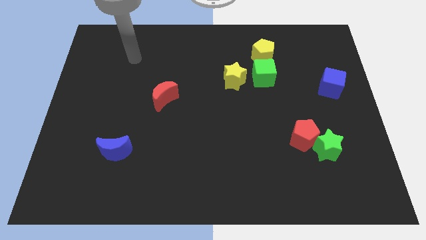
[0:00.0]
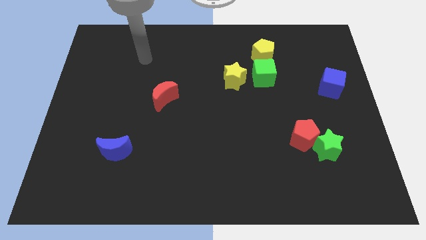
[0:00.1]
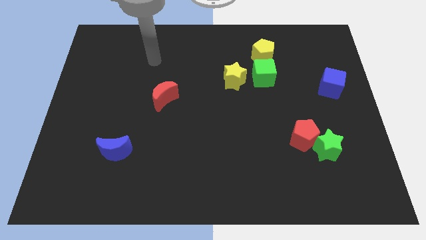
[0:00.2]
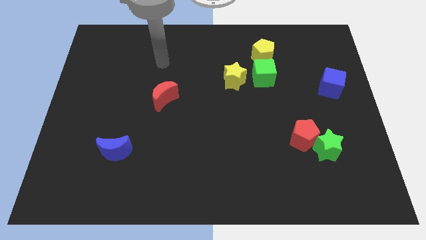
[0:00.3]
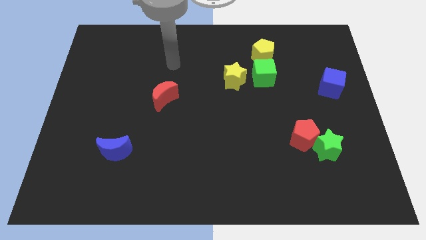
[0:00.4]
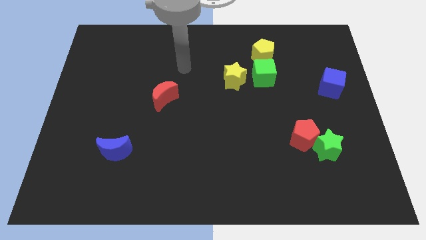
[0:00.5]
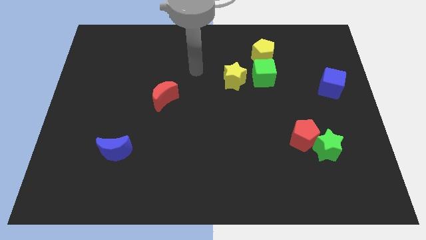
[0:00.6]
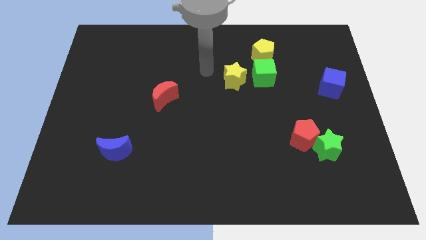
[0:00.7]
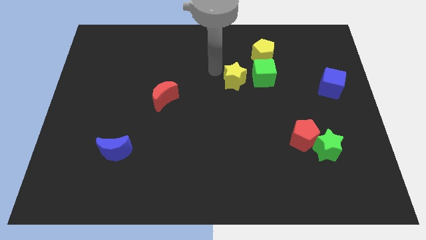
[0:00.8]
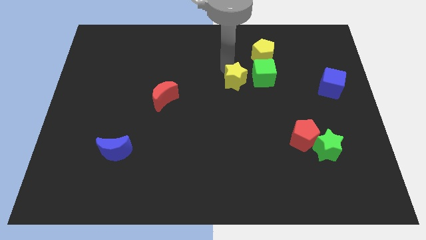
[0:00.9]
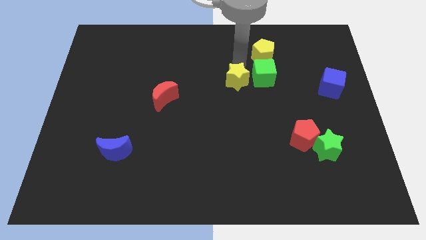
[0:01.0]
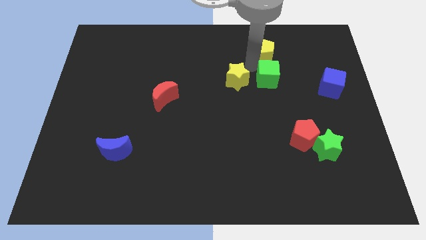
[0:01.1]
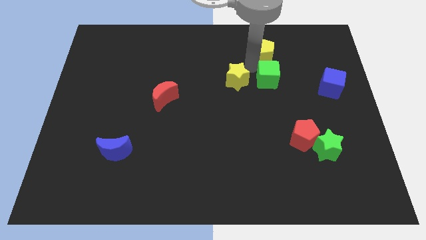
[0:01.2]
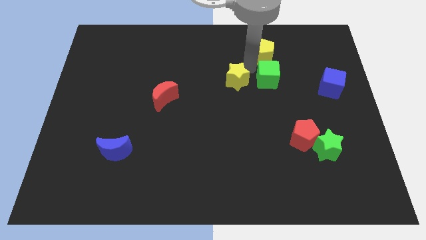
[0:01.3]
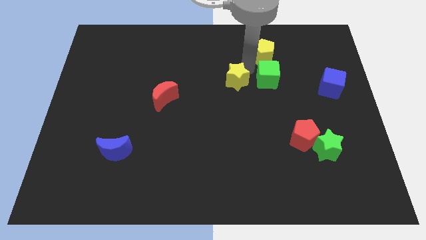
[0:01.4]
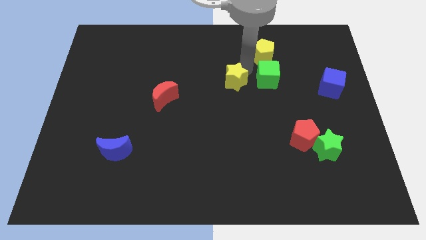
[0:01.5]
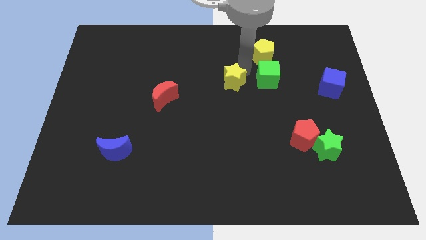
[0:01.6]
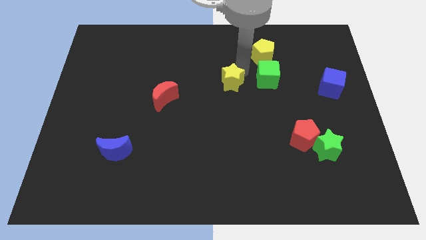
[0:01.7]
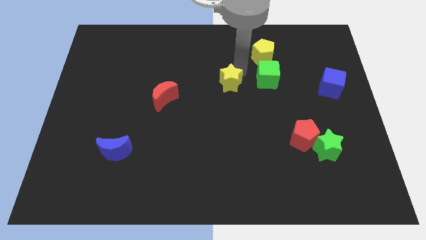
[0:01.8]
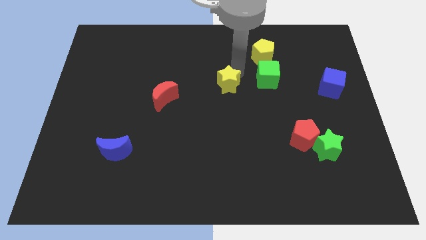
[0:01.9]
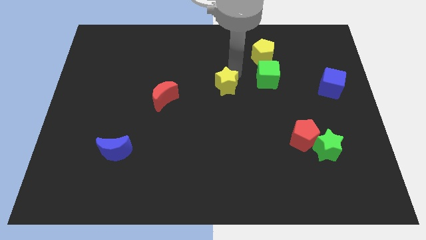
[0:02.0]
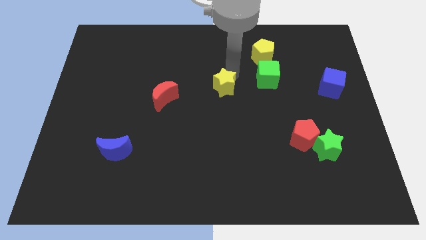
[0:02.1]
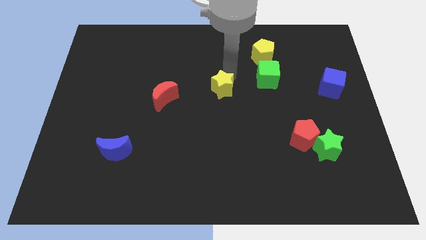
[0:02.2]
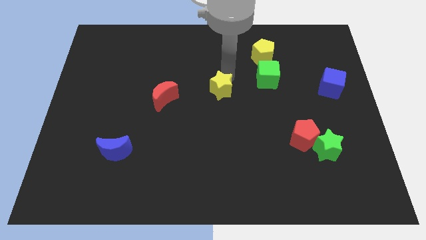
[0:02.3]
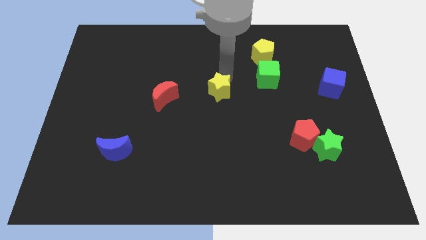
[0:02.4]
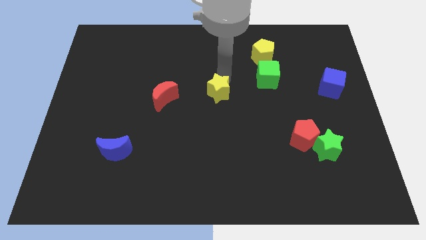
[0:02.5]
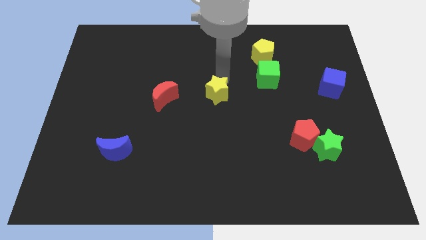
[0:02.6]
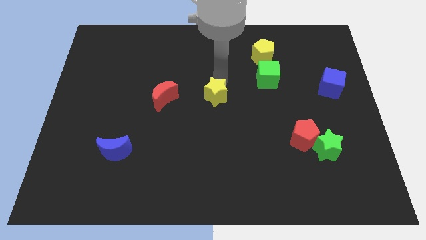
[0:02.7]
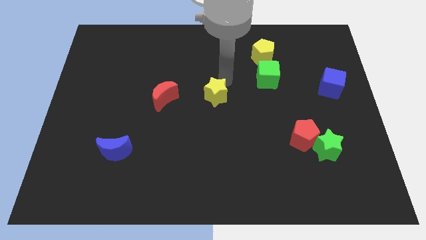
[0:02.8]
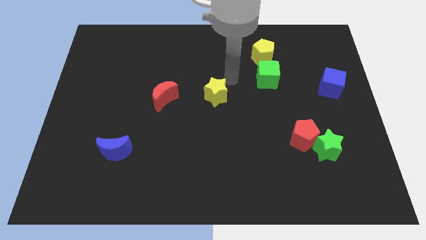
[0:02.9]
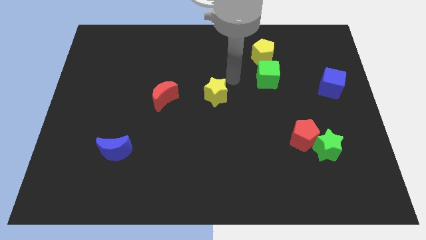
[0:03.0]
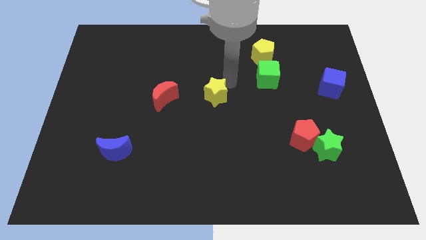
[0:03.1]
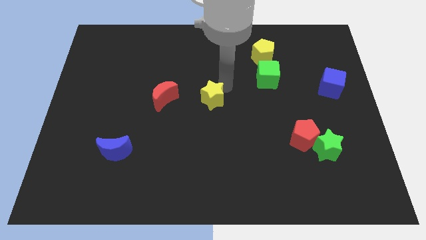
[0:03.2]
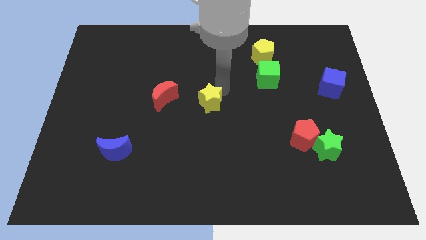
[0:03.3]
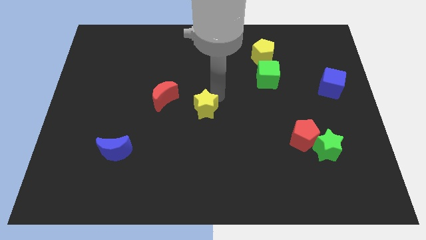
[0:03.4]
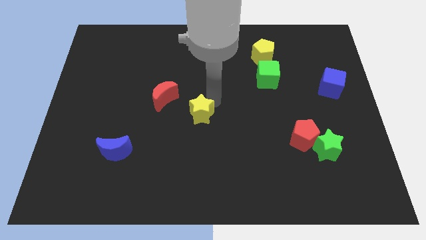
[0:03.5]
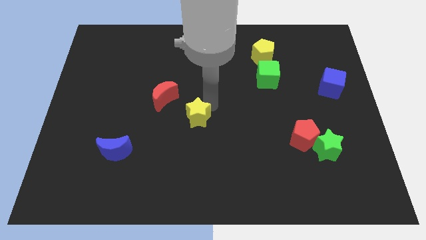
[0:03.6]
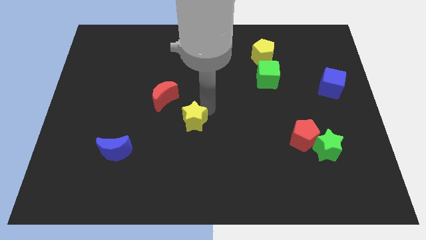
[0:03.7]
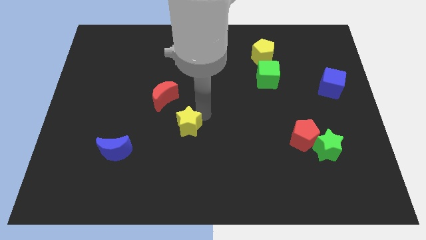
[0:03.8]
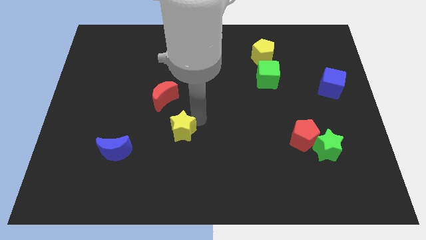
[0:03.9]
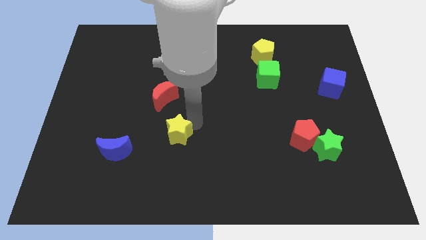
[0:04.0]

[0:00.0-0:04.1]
push the yellow star down and then to the left

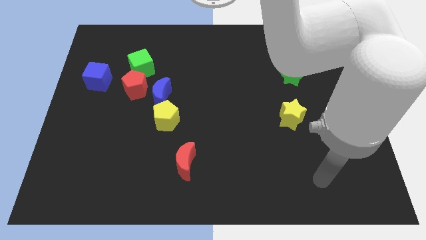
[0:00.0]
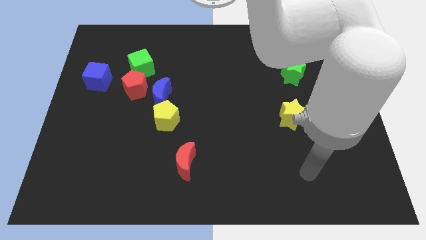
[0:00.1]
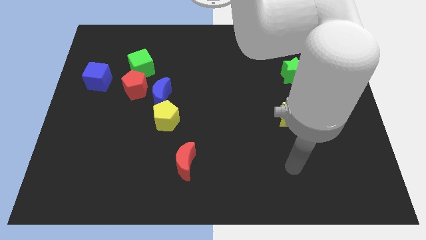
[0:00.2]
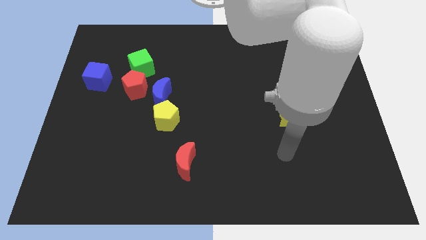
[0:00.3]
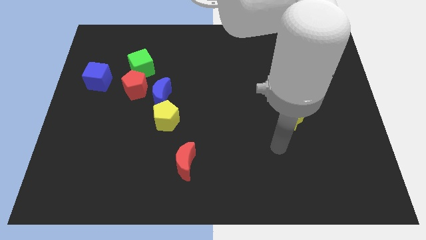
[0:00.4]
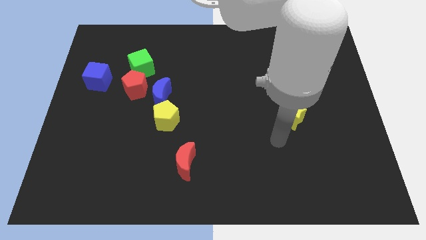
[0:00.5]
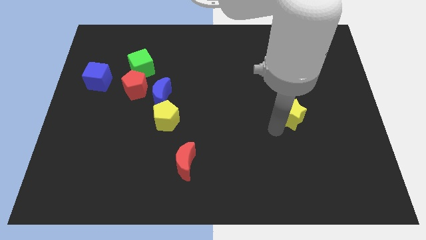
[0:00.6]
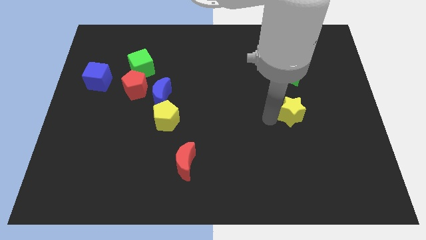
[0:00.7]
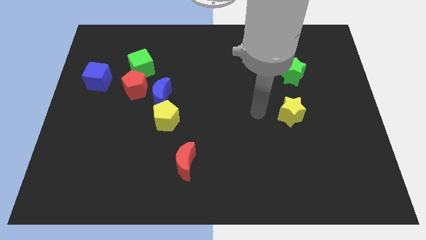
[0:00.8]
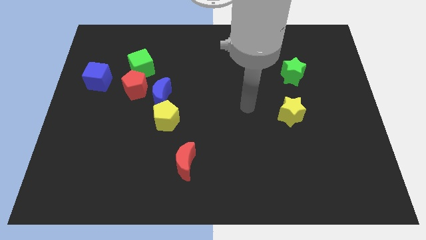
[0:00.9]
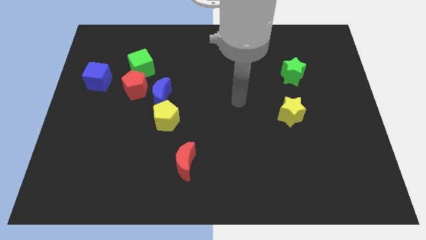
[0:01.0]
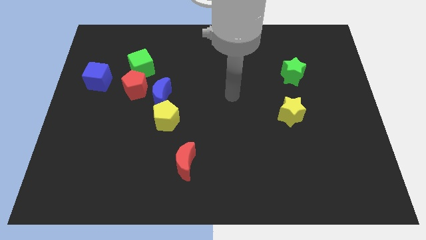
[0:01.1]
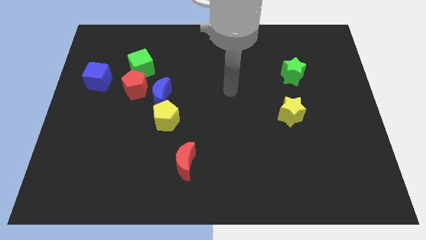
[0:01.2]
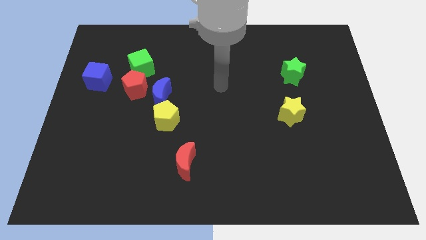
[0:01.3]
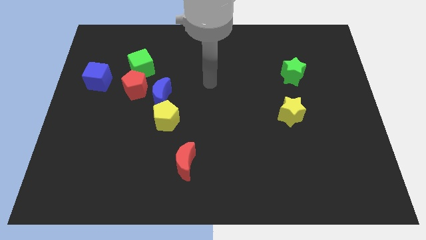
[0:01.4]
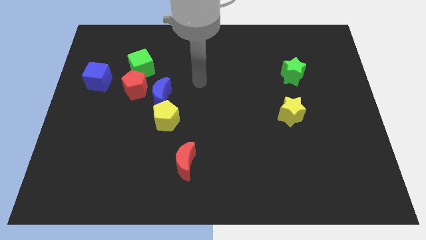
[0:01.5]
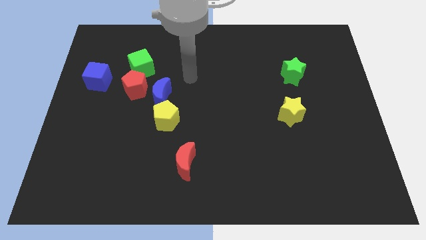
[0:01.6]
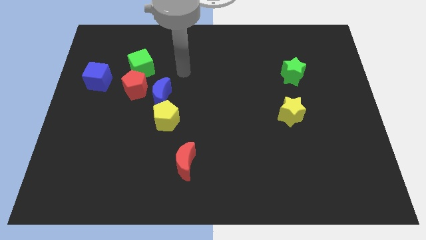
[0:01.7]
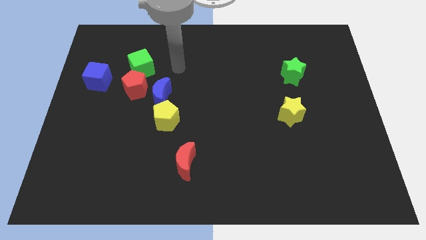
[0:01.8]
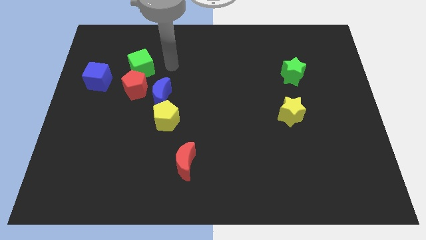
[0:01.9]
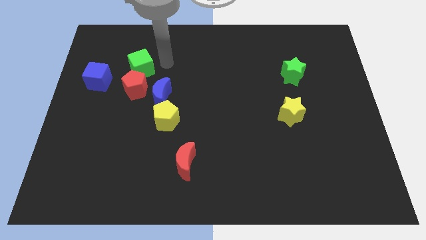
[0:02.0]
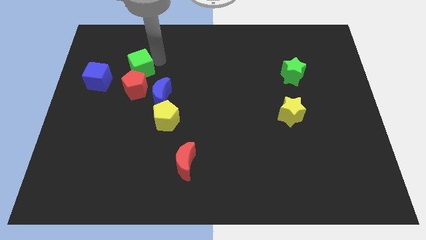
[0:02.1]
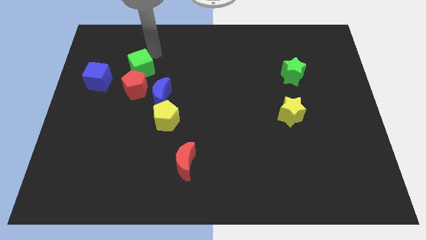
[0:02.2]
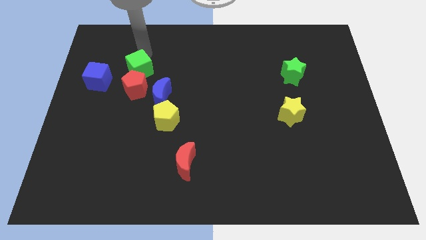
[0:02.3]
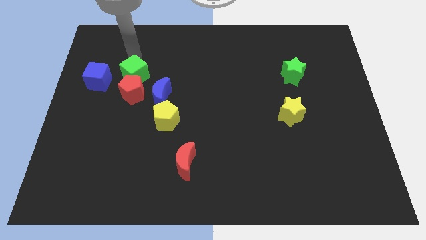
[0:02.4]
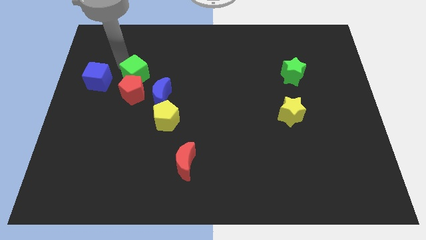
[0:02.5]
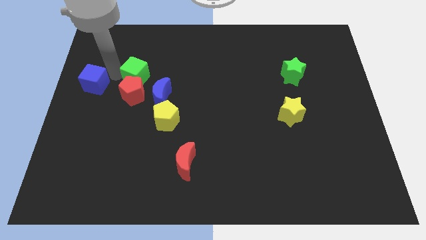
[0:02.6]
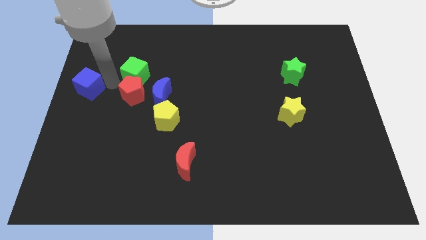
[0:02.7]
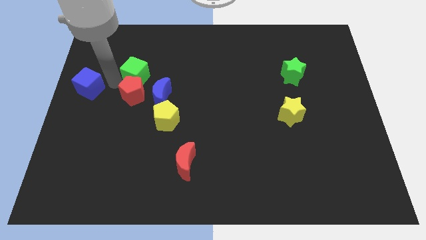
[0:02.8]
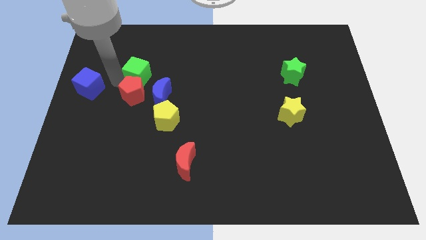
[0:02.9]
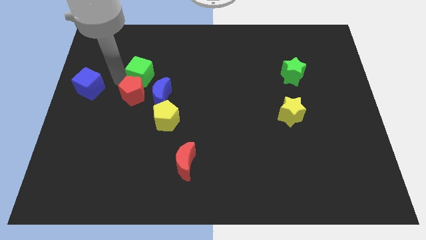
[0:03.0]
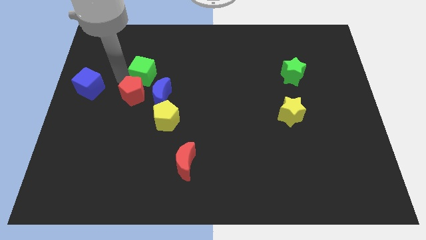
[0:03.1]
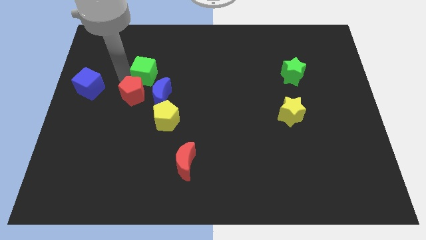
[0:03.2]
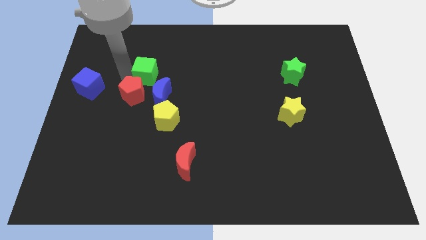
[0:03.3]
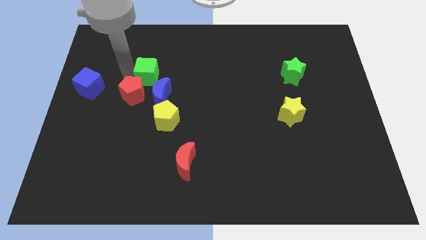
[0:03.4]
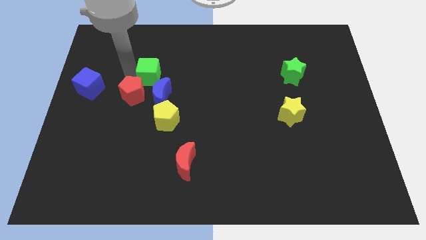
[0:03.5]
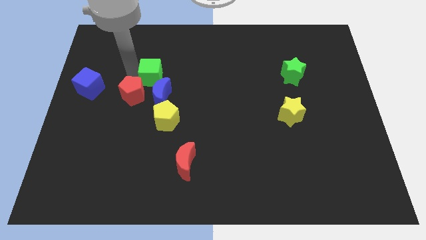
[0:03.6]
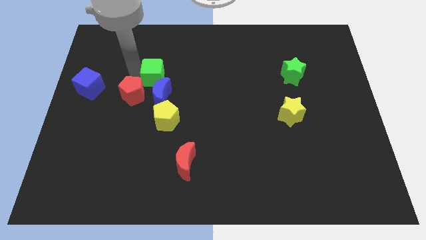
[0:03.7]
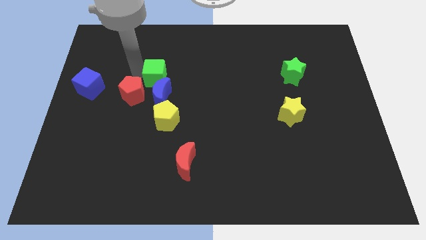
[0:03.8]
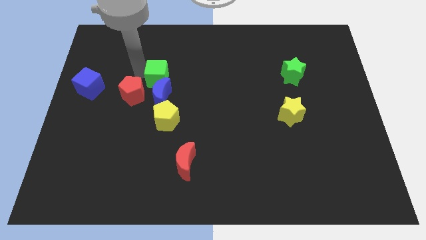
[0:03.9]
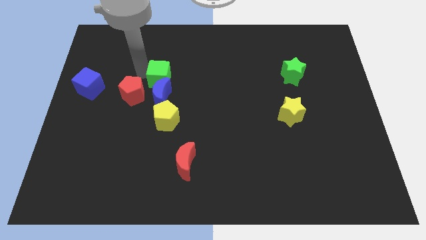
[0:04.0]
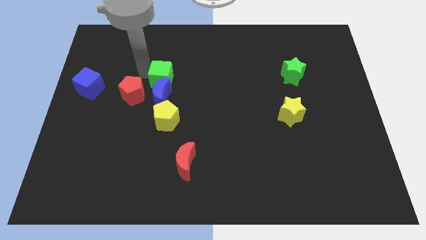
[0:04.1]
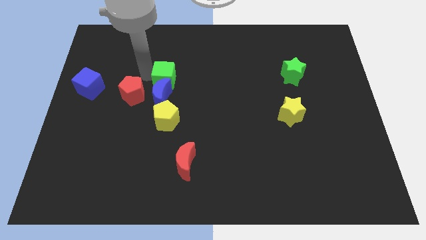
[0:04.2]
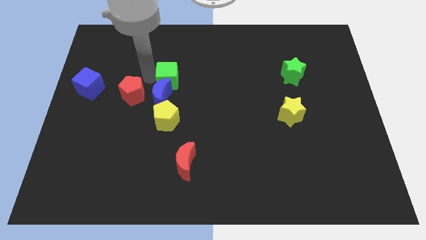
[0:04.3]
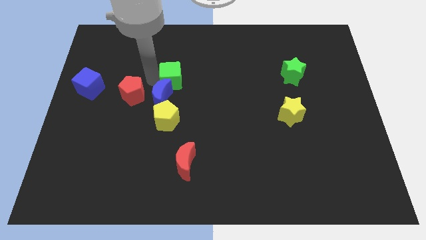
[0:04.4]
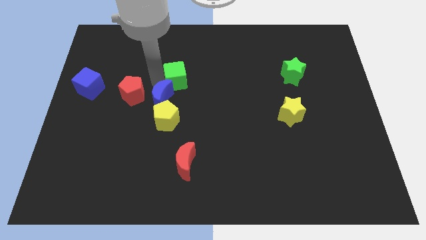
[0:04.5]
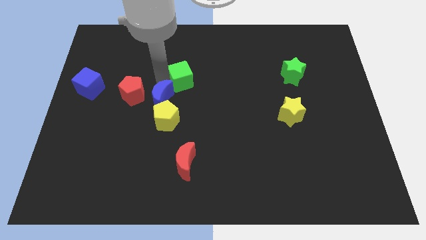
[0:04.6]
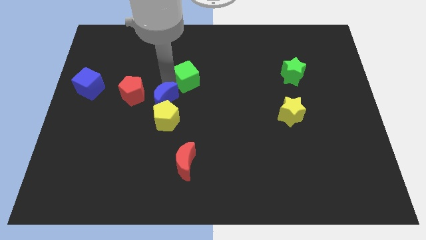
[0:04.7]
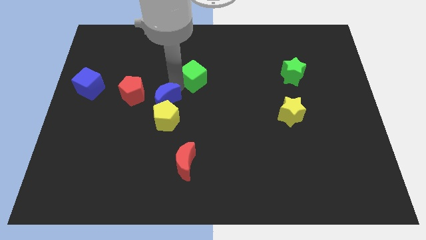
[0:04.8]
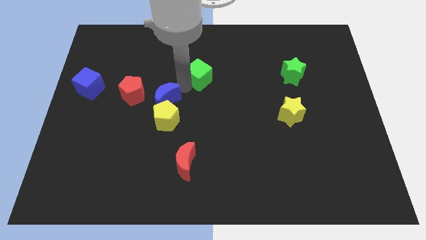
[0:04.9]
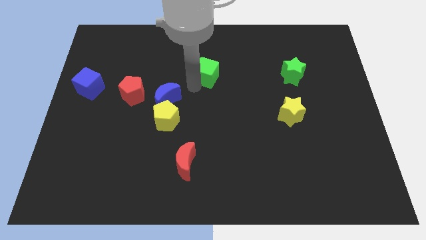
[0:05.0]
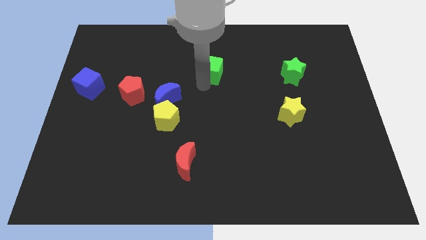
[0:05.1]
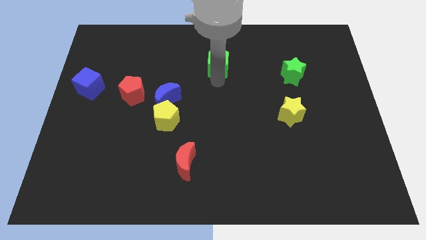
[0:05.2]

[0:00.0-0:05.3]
push the green cube right
